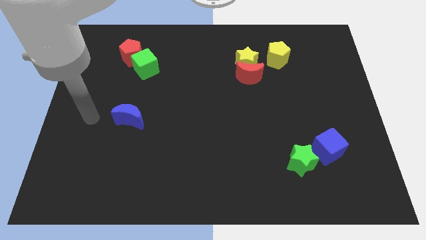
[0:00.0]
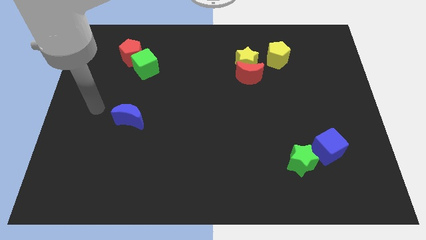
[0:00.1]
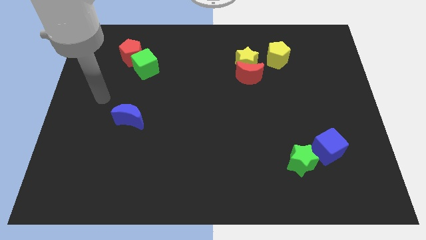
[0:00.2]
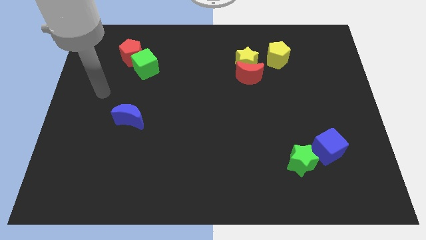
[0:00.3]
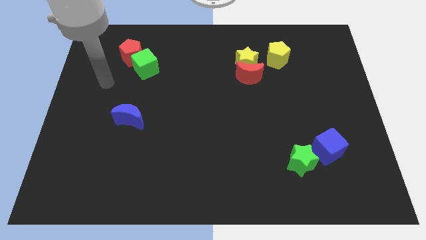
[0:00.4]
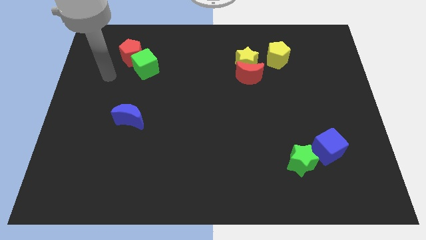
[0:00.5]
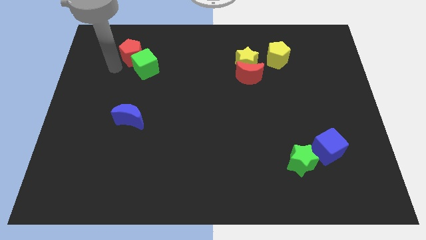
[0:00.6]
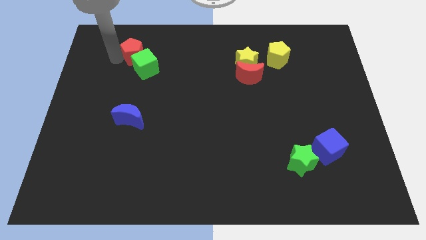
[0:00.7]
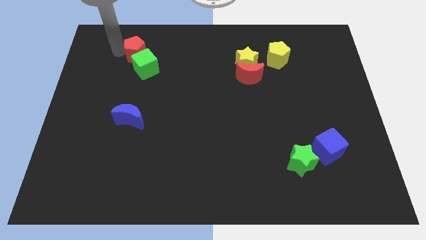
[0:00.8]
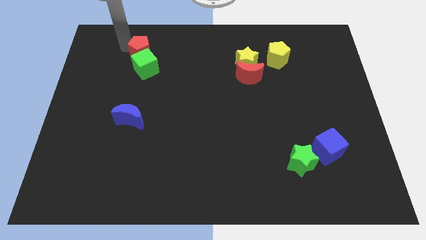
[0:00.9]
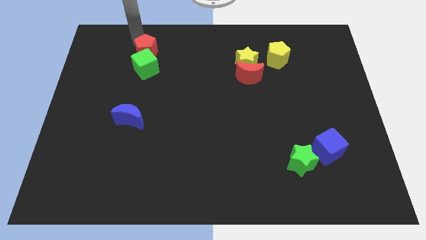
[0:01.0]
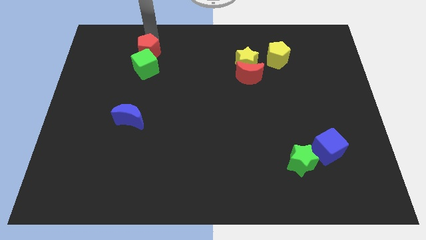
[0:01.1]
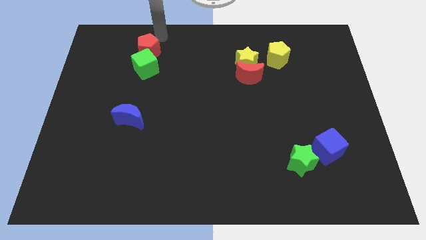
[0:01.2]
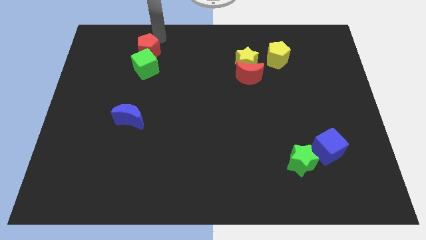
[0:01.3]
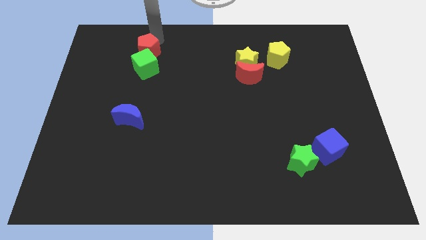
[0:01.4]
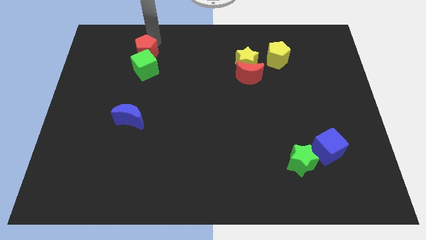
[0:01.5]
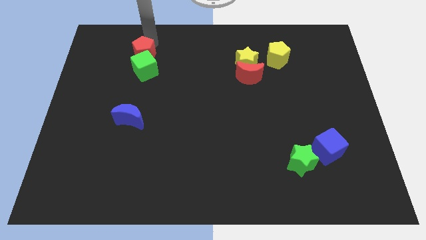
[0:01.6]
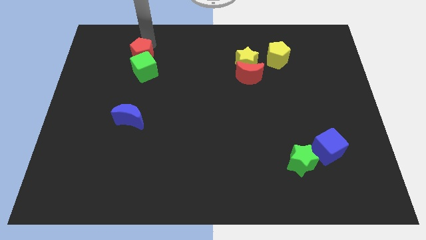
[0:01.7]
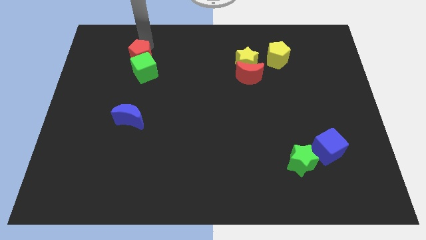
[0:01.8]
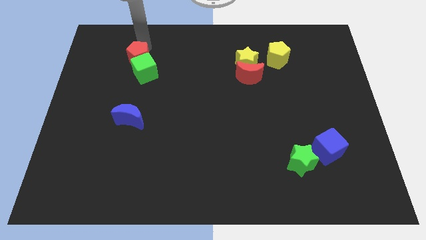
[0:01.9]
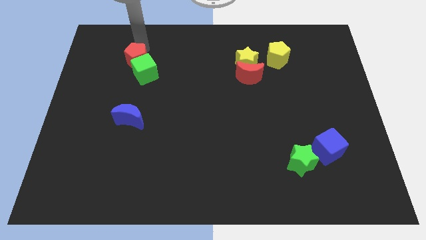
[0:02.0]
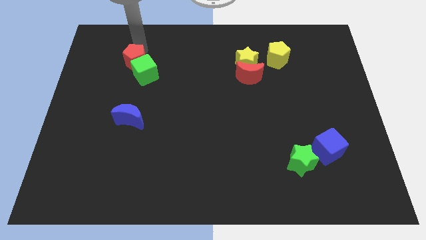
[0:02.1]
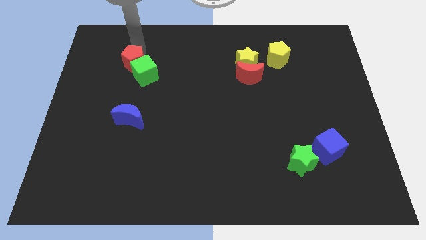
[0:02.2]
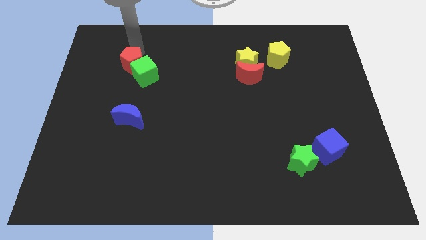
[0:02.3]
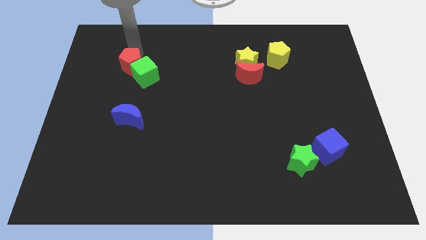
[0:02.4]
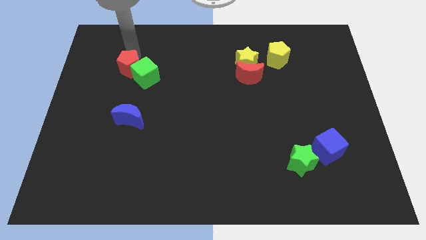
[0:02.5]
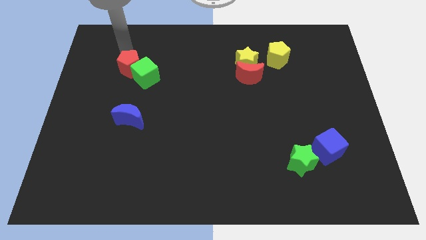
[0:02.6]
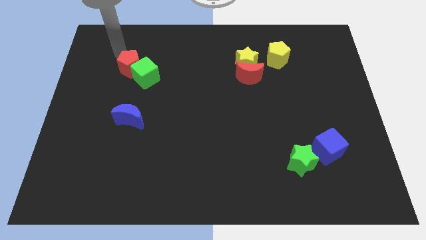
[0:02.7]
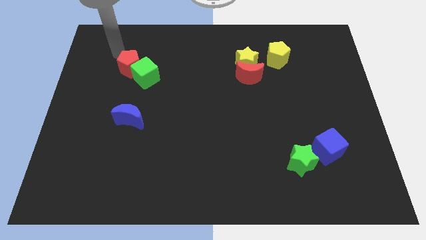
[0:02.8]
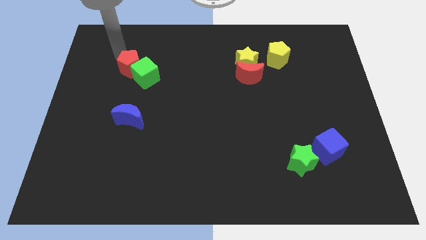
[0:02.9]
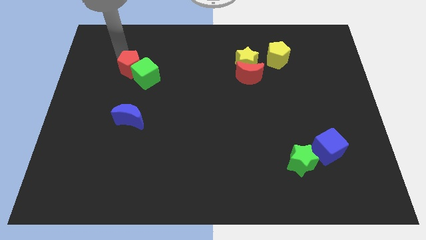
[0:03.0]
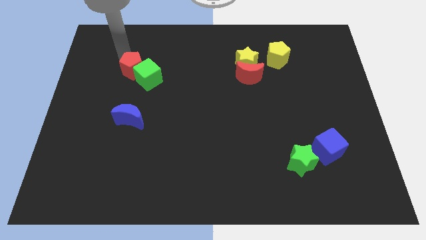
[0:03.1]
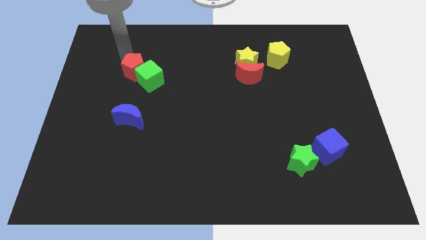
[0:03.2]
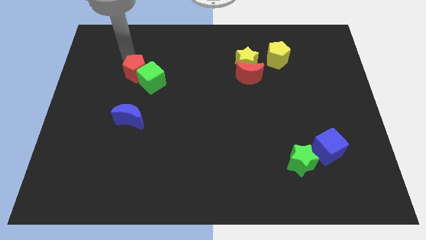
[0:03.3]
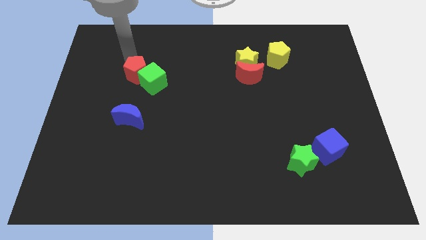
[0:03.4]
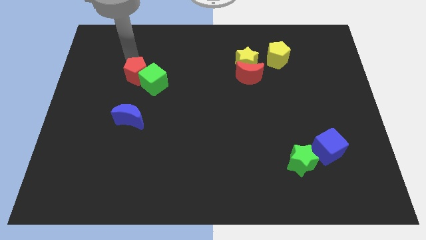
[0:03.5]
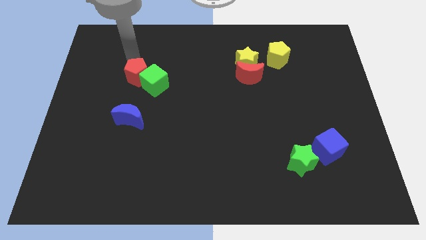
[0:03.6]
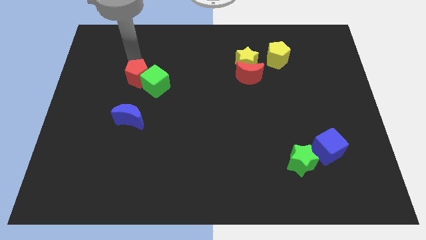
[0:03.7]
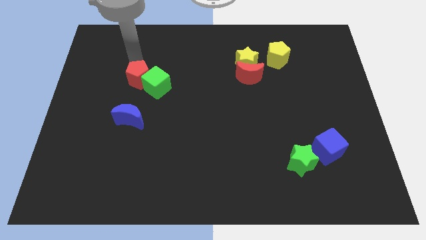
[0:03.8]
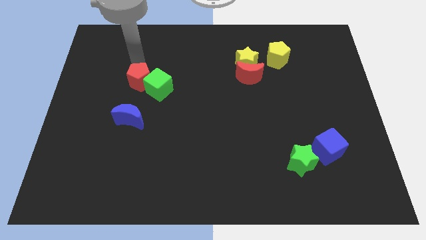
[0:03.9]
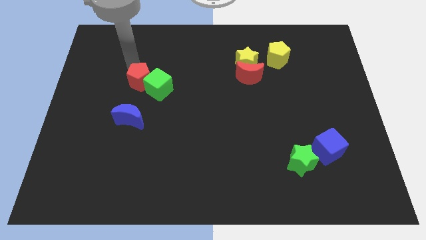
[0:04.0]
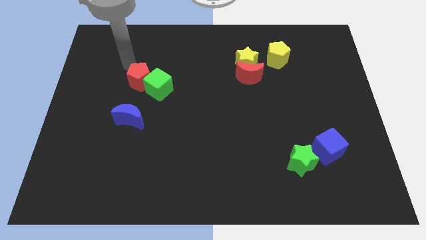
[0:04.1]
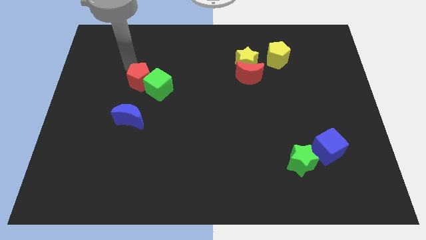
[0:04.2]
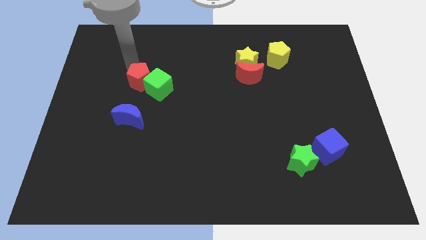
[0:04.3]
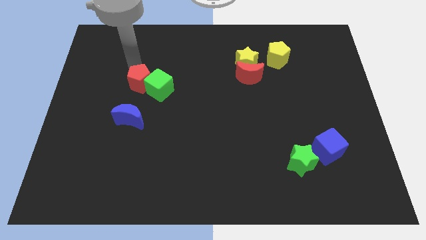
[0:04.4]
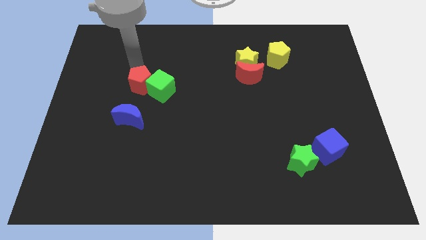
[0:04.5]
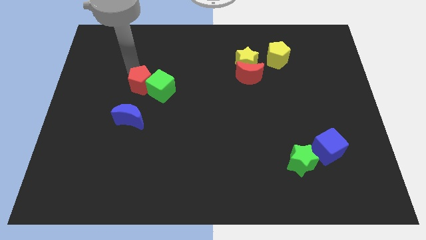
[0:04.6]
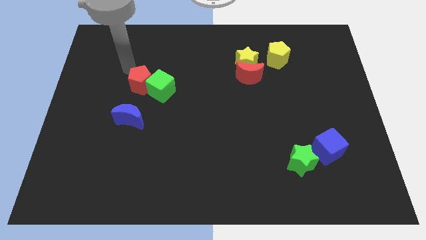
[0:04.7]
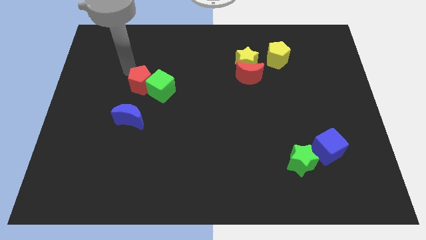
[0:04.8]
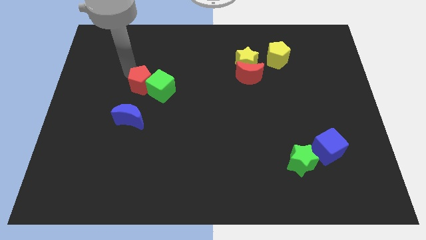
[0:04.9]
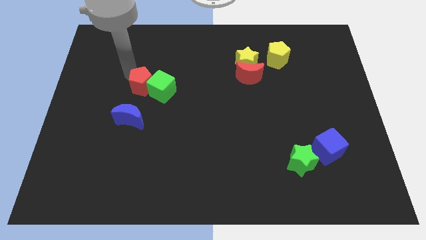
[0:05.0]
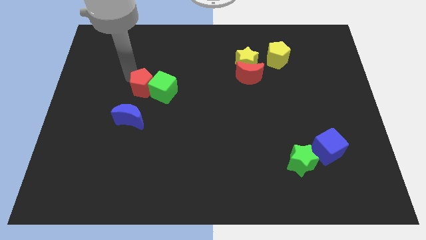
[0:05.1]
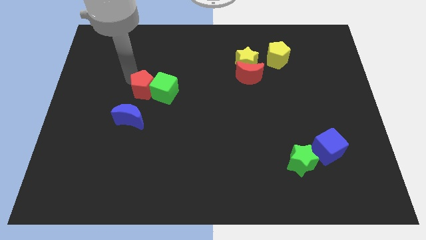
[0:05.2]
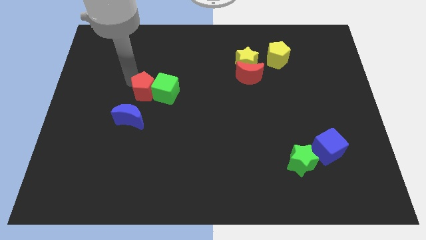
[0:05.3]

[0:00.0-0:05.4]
put the red pentagon to the top right side of the blue moon

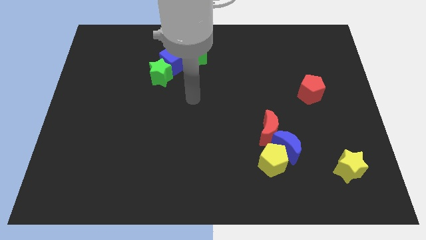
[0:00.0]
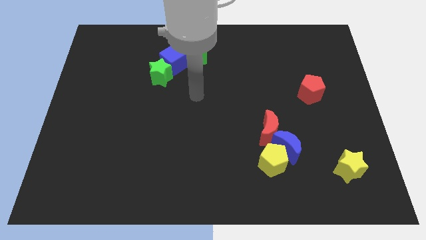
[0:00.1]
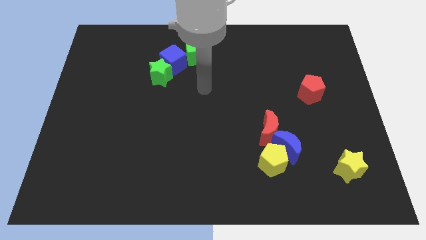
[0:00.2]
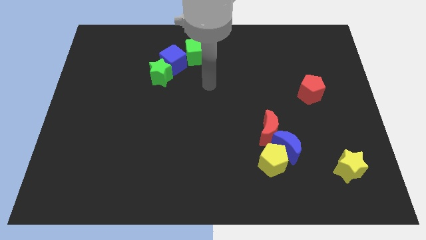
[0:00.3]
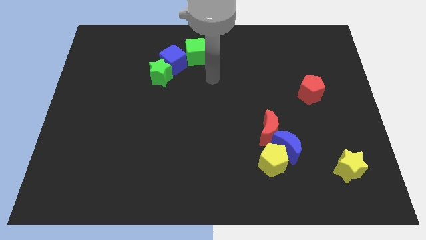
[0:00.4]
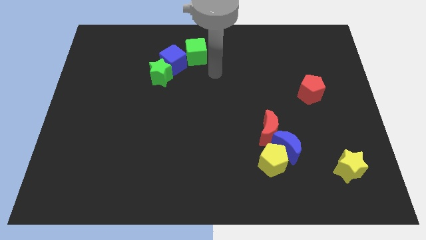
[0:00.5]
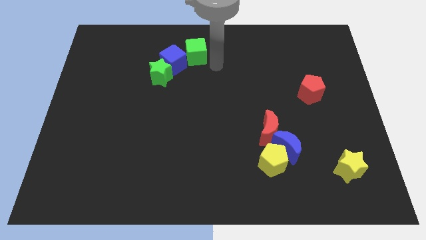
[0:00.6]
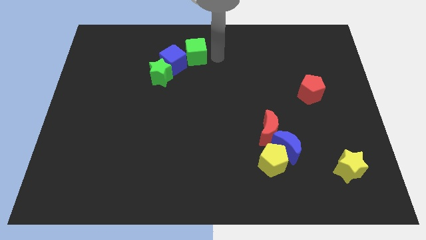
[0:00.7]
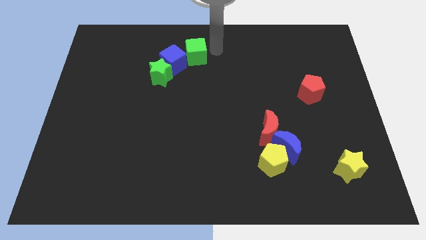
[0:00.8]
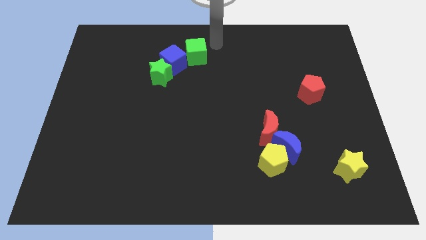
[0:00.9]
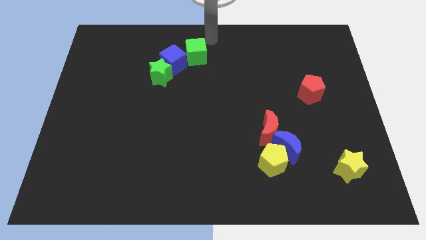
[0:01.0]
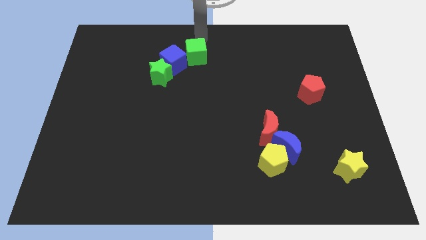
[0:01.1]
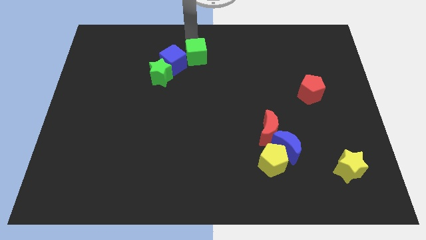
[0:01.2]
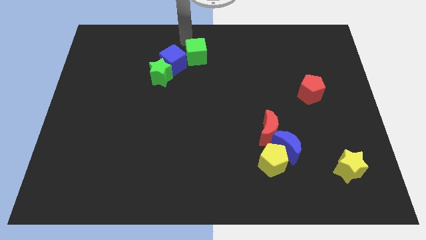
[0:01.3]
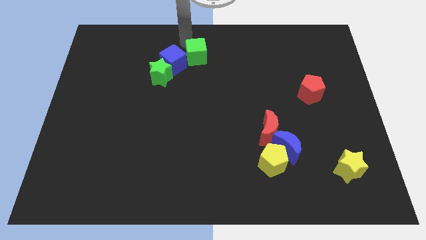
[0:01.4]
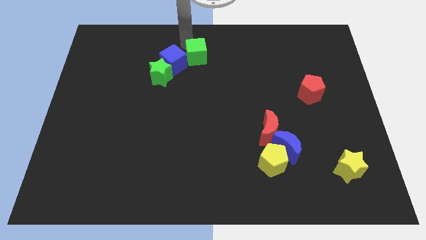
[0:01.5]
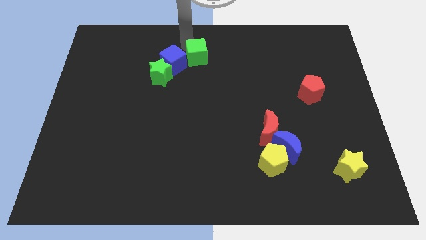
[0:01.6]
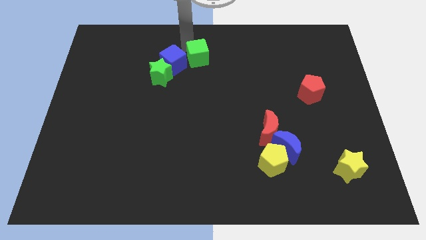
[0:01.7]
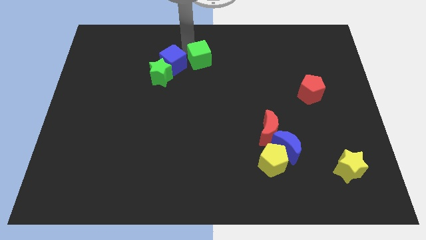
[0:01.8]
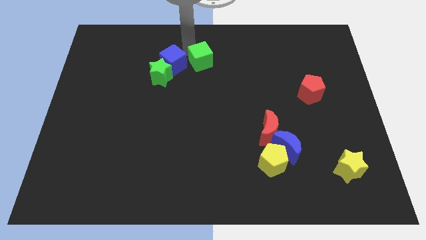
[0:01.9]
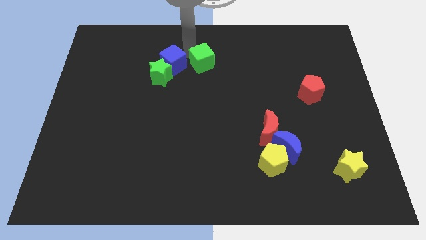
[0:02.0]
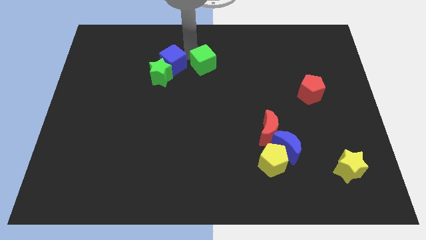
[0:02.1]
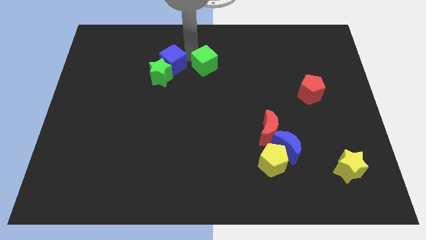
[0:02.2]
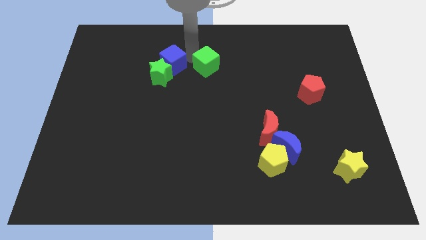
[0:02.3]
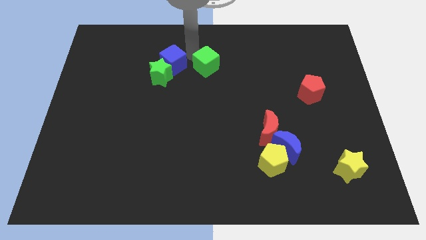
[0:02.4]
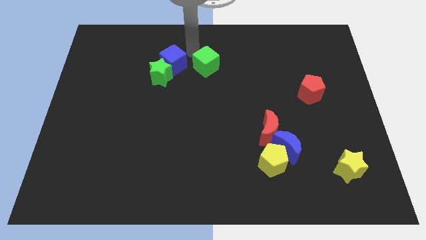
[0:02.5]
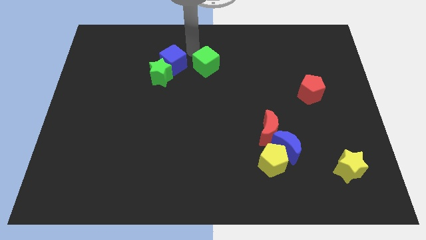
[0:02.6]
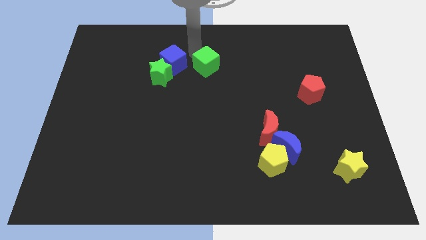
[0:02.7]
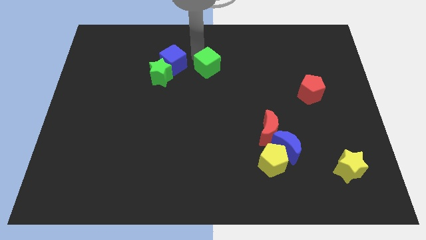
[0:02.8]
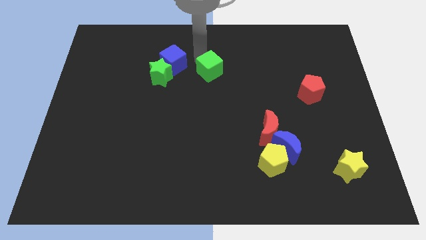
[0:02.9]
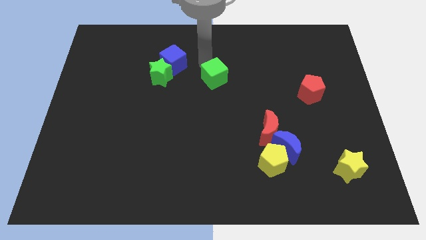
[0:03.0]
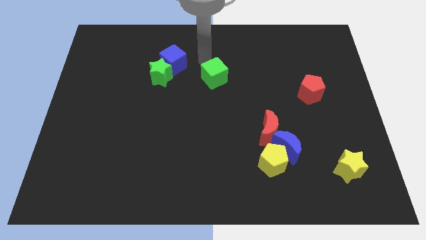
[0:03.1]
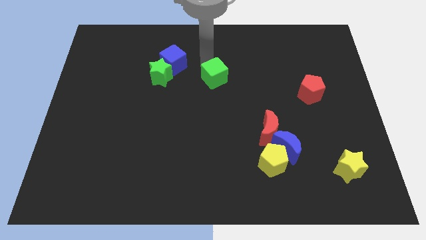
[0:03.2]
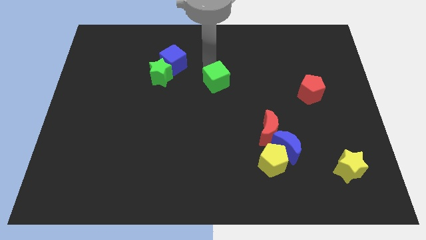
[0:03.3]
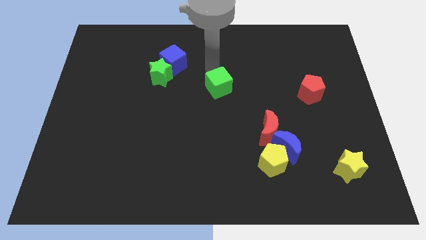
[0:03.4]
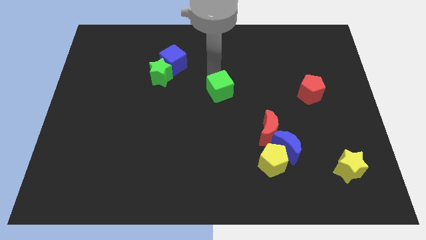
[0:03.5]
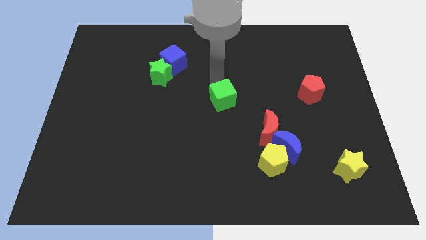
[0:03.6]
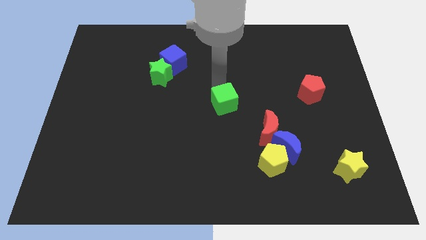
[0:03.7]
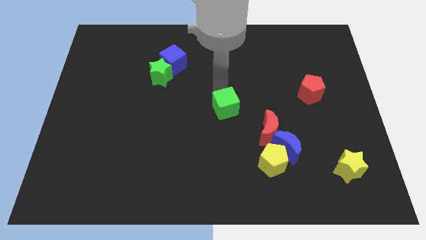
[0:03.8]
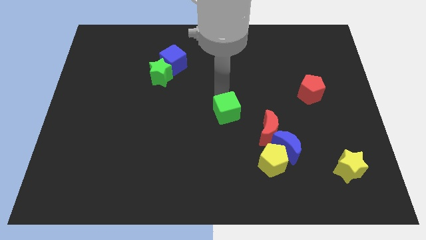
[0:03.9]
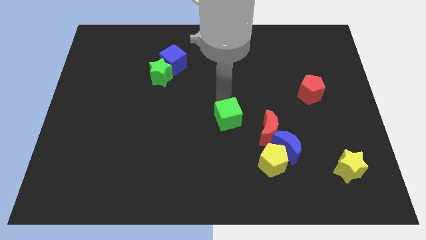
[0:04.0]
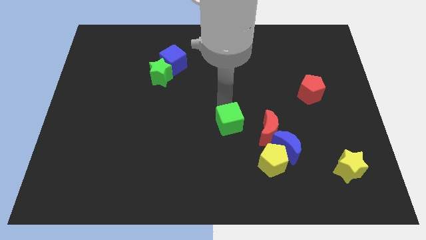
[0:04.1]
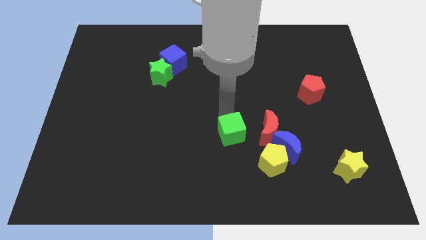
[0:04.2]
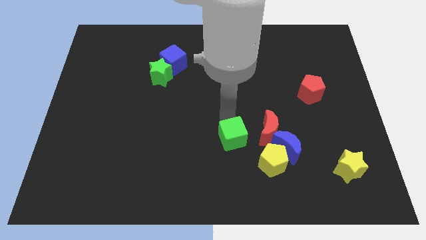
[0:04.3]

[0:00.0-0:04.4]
put the green cube to the bottom left of the red moon
